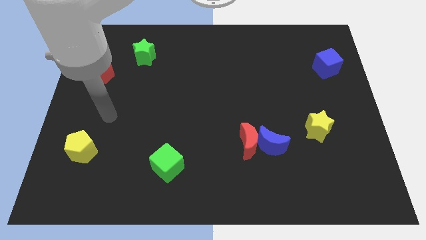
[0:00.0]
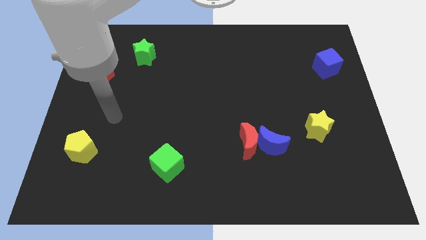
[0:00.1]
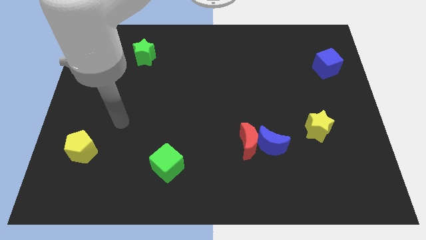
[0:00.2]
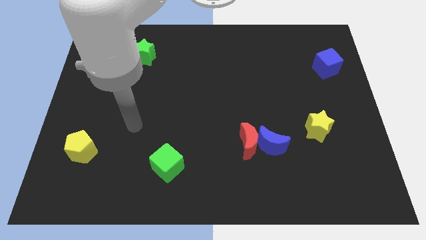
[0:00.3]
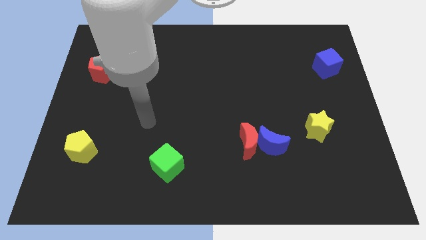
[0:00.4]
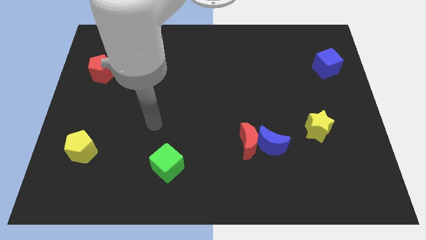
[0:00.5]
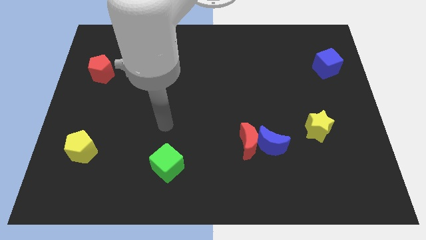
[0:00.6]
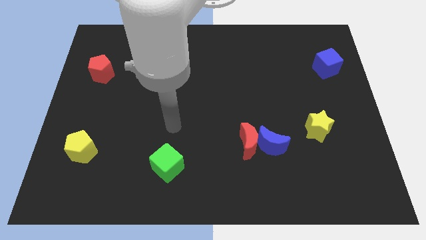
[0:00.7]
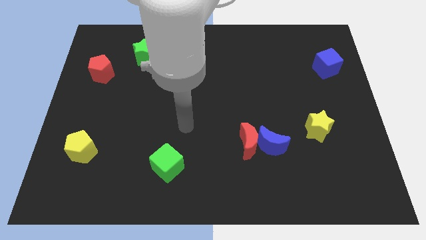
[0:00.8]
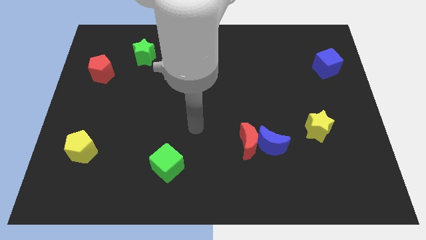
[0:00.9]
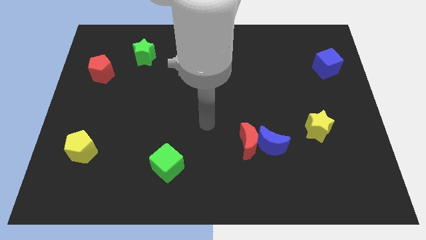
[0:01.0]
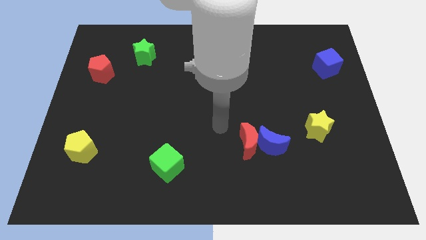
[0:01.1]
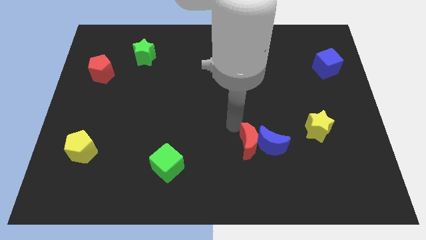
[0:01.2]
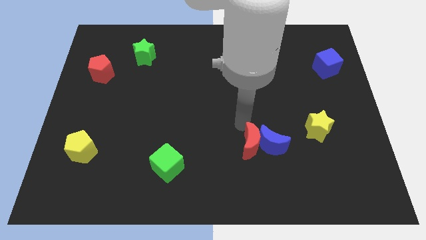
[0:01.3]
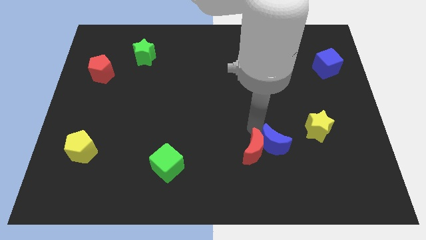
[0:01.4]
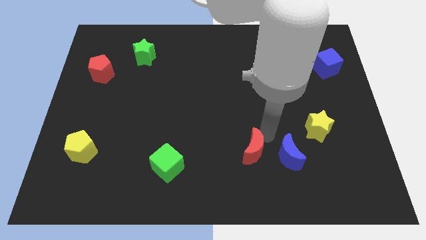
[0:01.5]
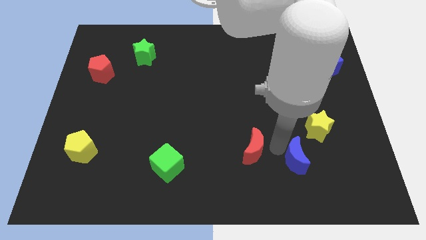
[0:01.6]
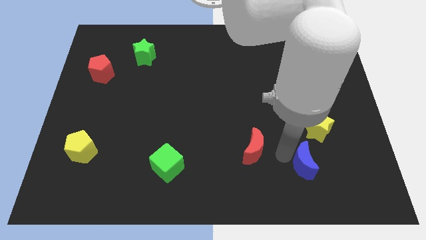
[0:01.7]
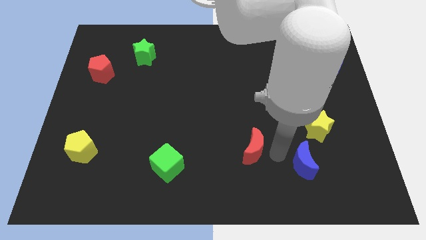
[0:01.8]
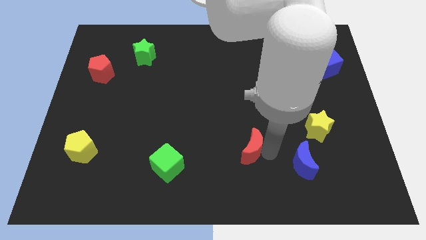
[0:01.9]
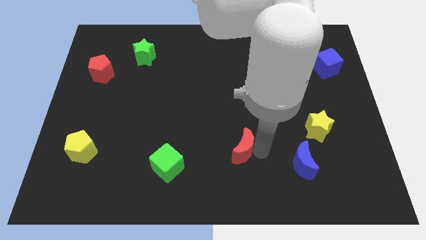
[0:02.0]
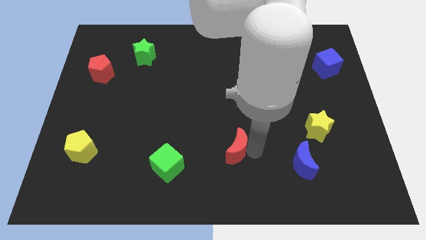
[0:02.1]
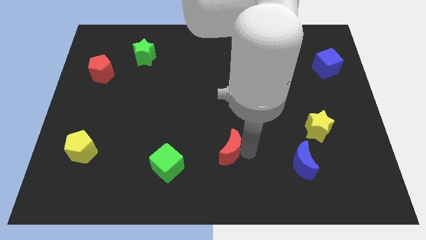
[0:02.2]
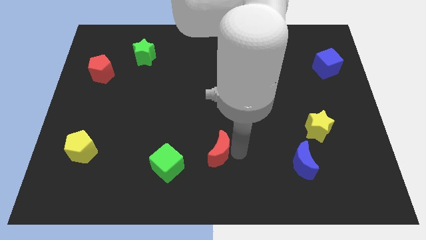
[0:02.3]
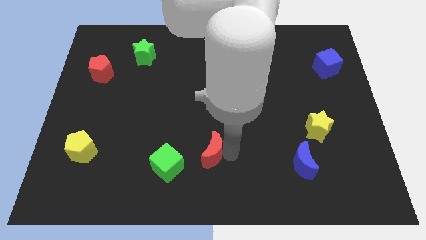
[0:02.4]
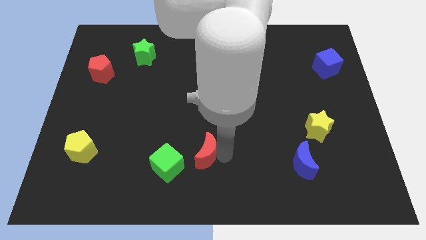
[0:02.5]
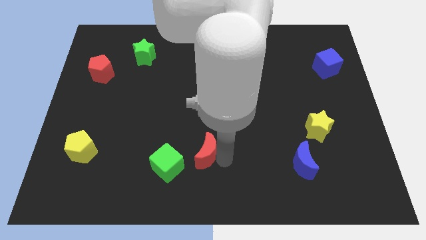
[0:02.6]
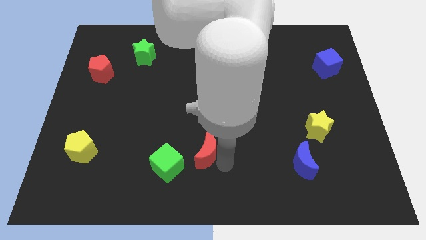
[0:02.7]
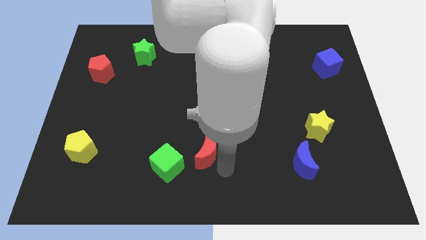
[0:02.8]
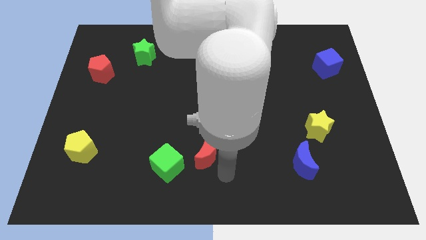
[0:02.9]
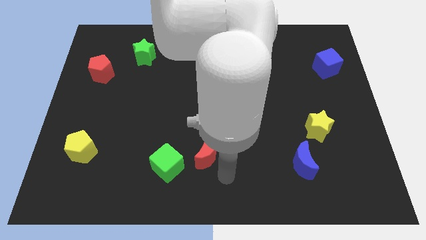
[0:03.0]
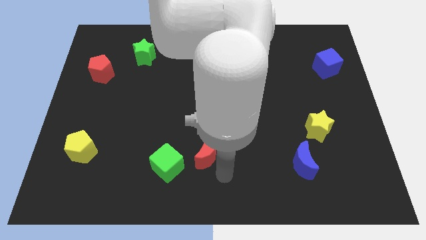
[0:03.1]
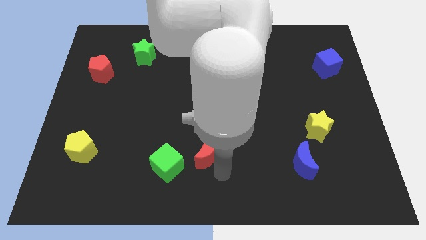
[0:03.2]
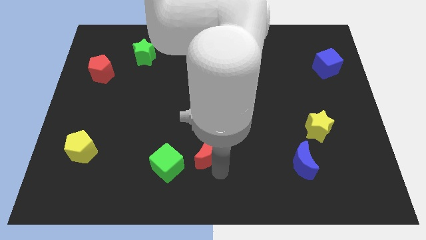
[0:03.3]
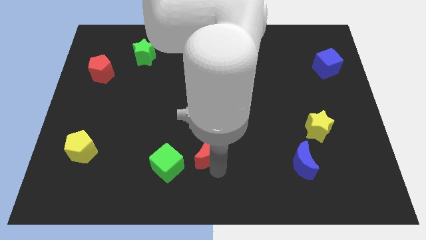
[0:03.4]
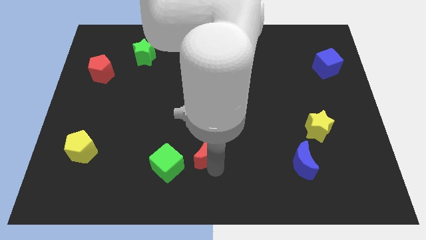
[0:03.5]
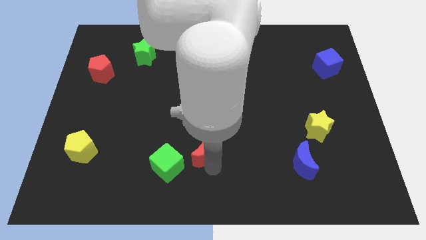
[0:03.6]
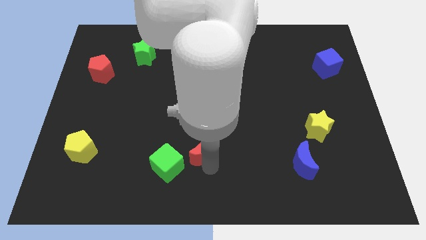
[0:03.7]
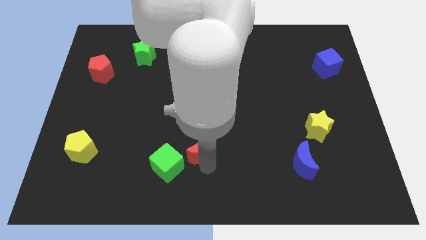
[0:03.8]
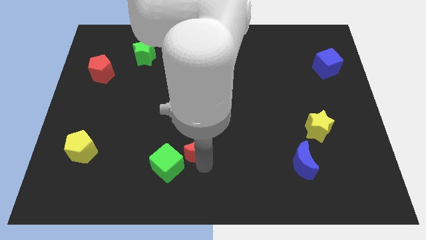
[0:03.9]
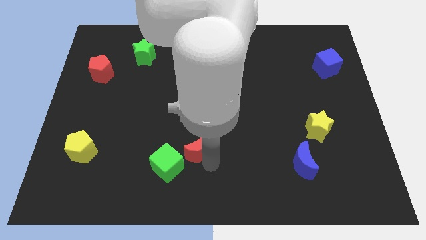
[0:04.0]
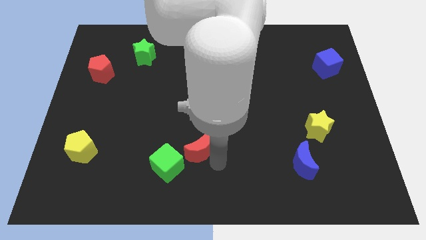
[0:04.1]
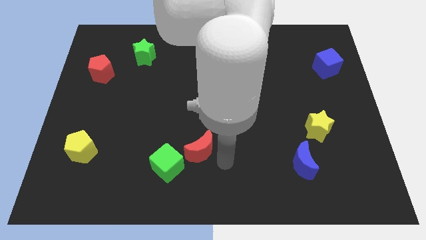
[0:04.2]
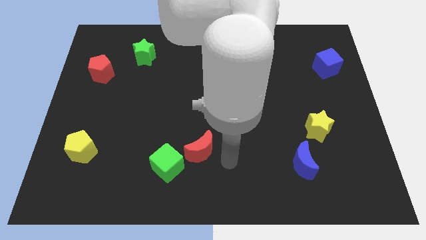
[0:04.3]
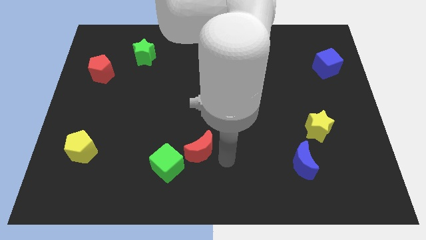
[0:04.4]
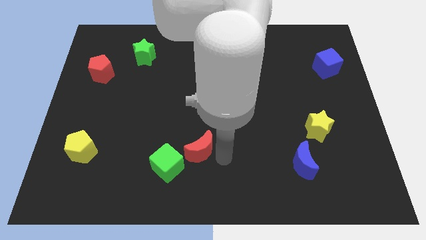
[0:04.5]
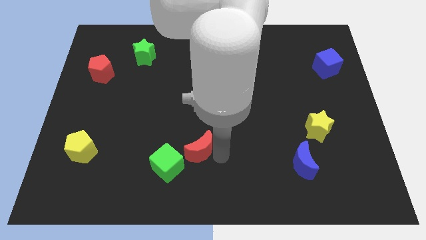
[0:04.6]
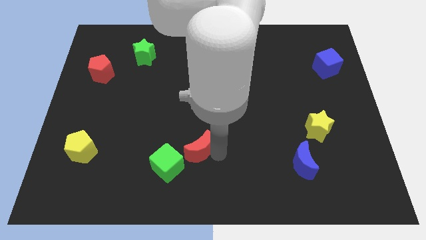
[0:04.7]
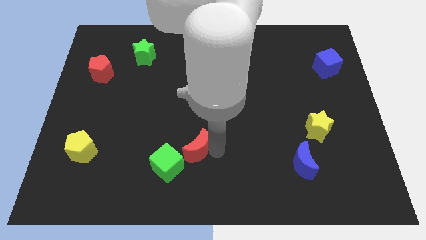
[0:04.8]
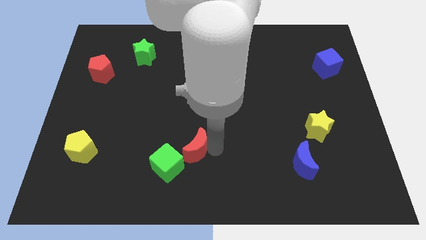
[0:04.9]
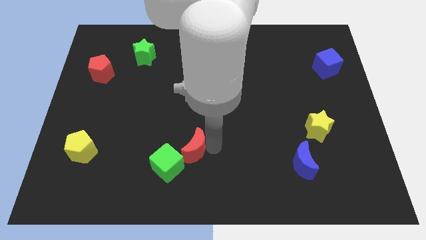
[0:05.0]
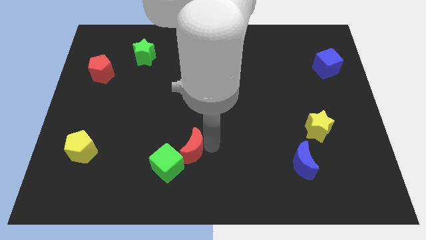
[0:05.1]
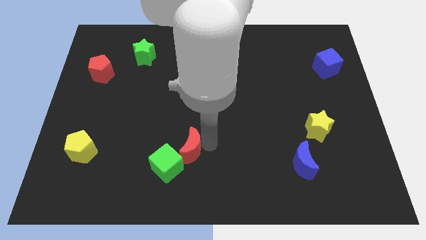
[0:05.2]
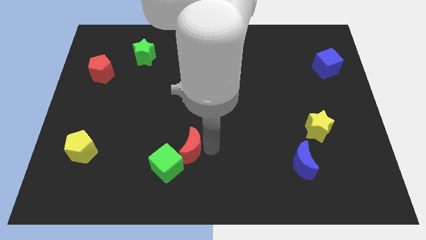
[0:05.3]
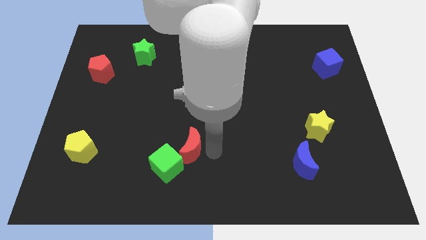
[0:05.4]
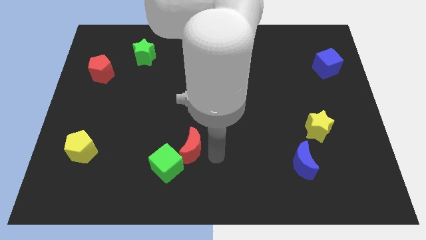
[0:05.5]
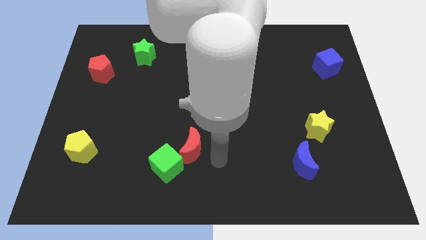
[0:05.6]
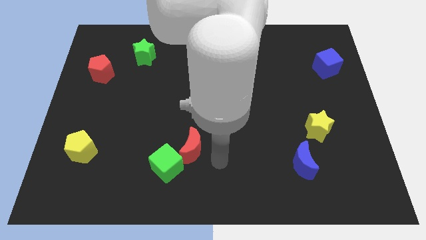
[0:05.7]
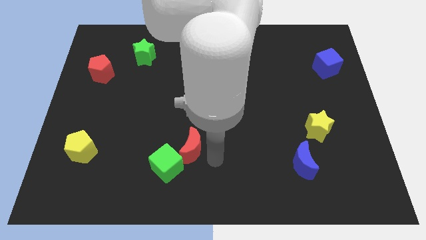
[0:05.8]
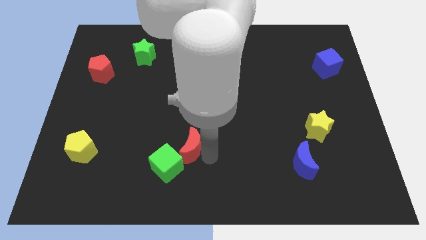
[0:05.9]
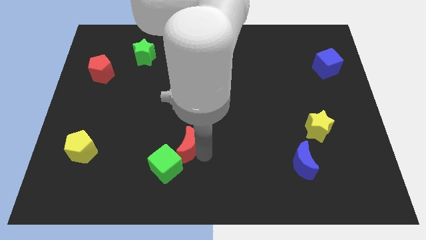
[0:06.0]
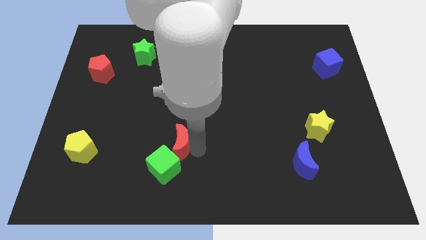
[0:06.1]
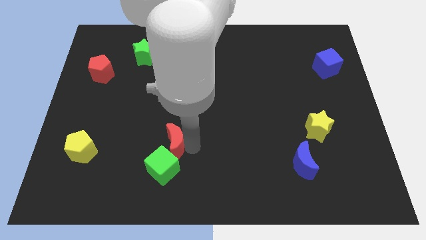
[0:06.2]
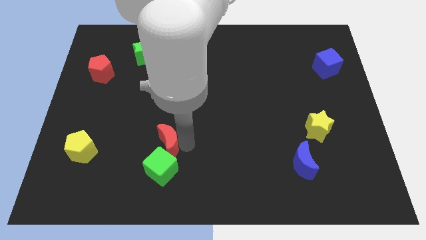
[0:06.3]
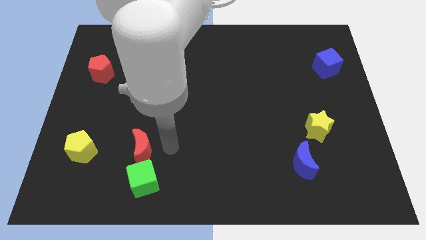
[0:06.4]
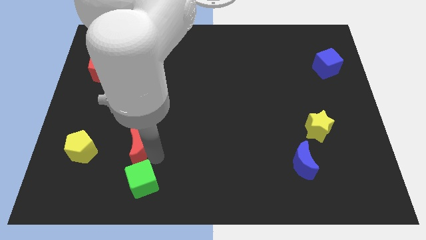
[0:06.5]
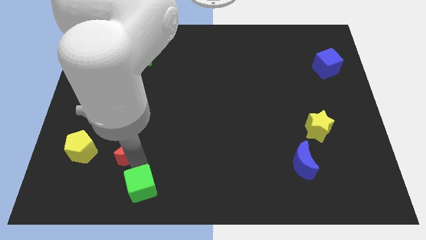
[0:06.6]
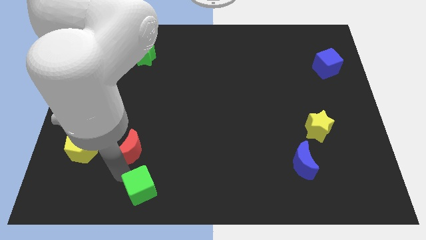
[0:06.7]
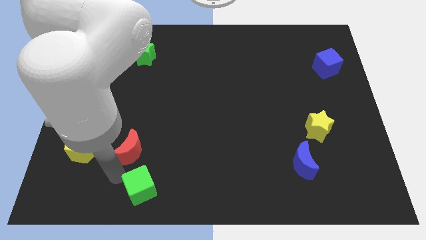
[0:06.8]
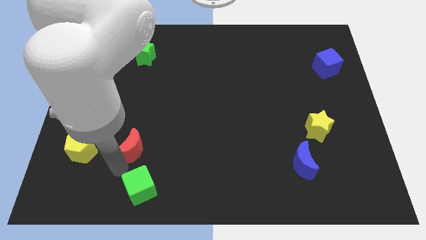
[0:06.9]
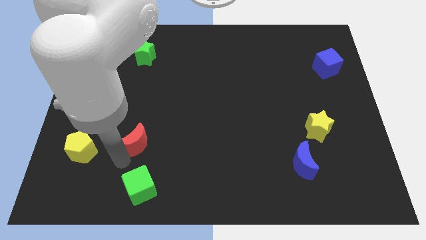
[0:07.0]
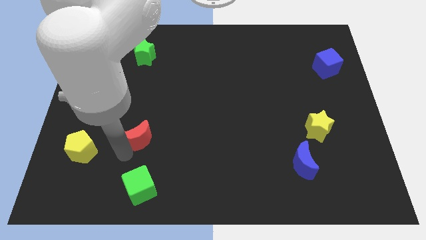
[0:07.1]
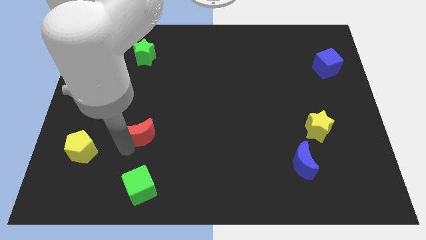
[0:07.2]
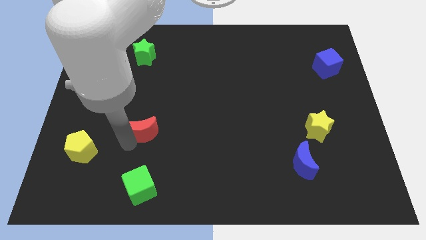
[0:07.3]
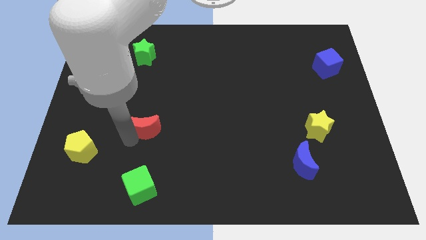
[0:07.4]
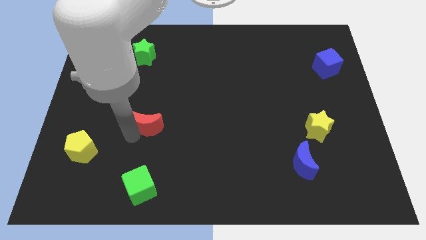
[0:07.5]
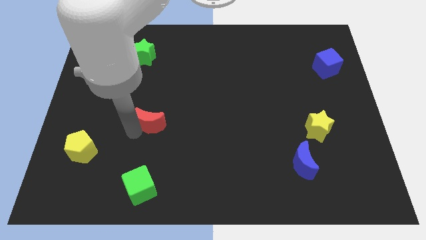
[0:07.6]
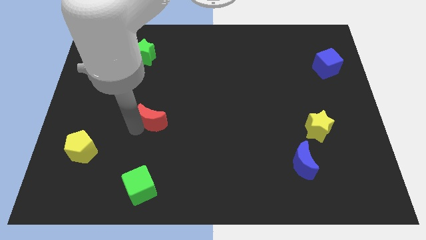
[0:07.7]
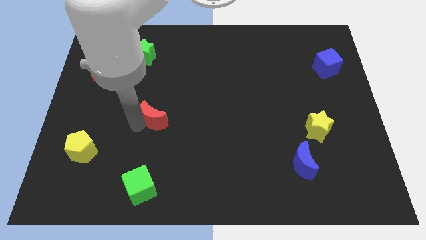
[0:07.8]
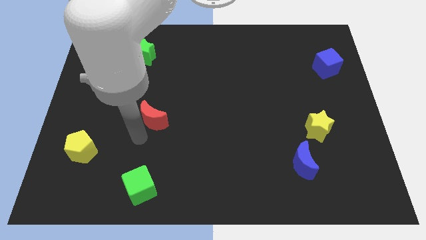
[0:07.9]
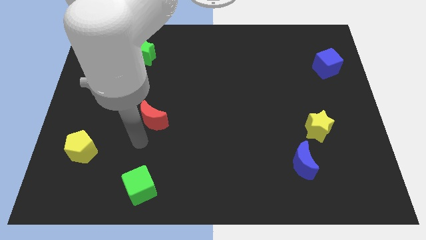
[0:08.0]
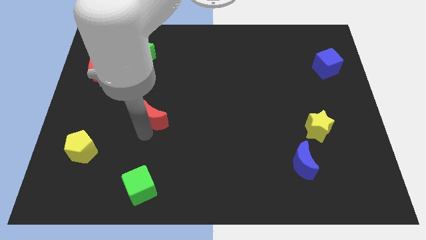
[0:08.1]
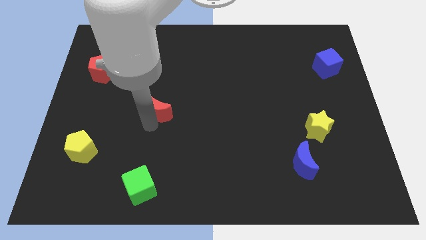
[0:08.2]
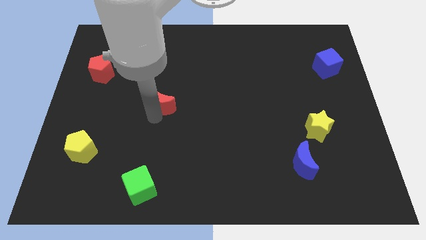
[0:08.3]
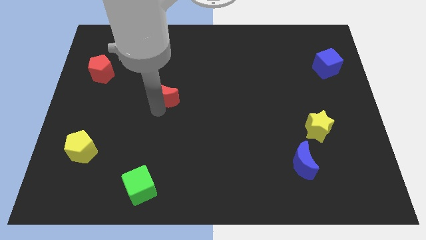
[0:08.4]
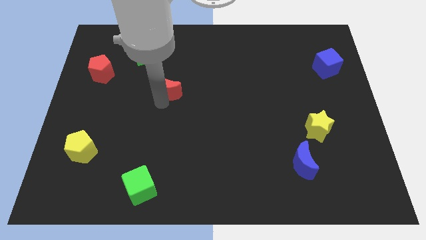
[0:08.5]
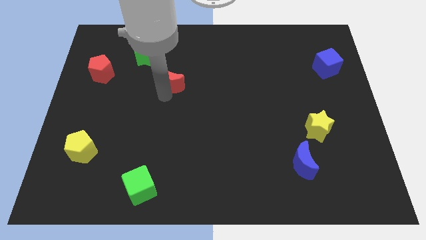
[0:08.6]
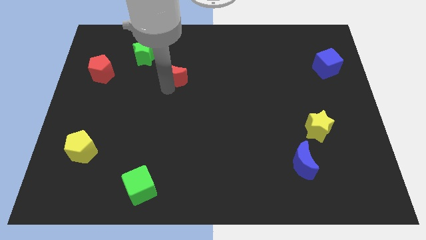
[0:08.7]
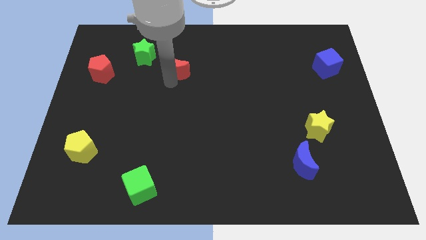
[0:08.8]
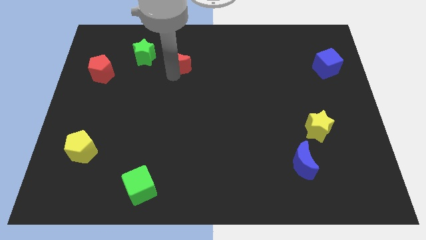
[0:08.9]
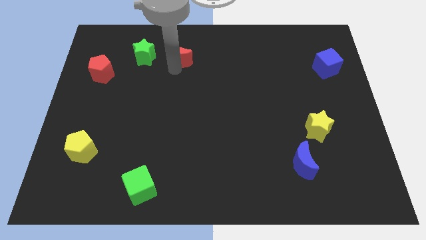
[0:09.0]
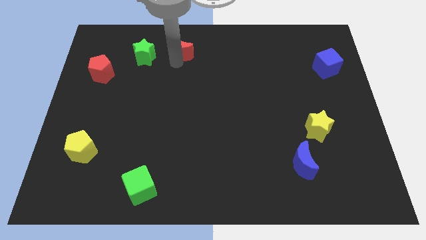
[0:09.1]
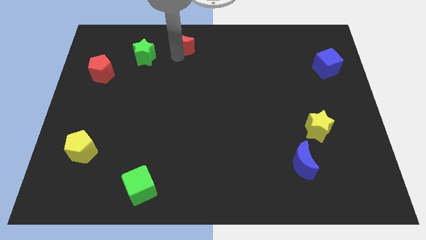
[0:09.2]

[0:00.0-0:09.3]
push the red moon to the top side
